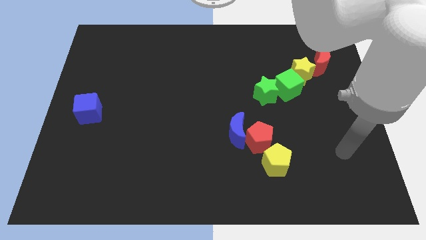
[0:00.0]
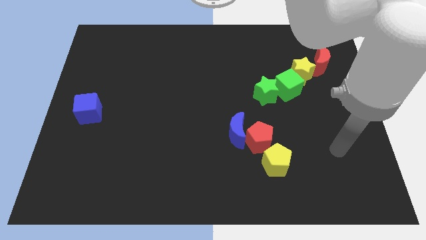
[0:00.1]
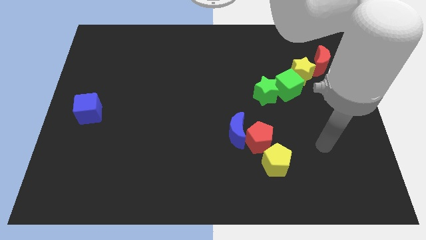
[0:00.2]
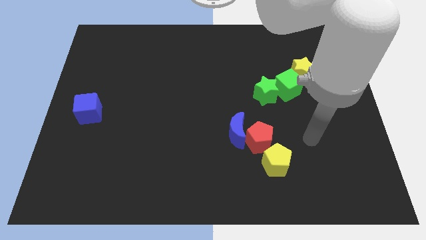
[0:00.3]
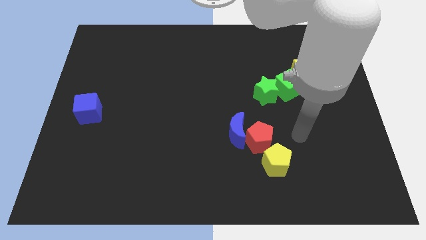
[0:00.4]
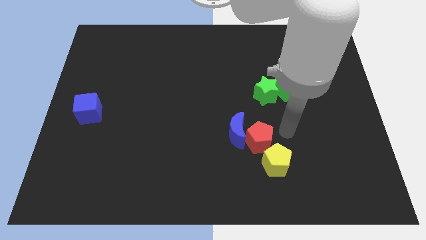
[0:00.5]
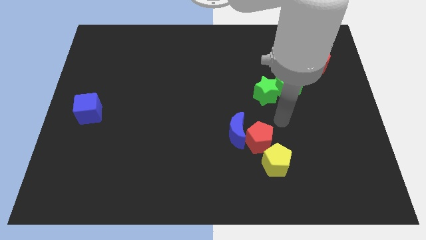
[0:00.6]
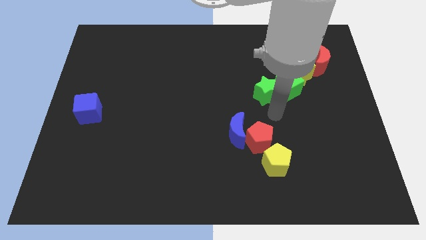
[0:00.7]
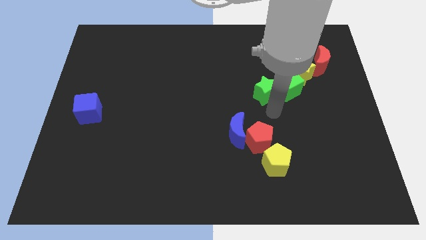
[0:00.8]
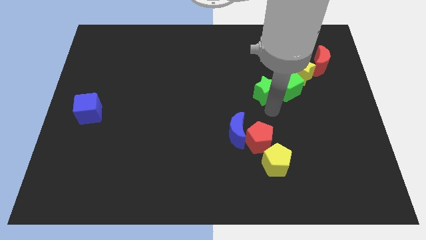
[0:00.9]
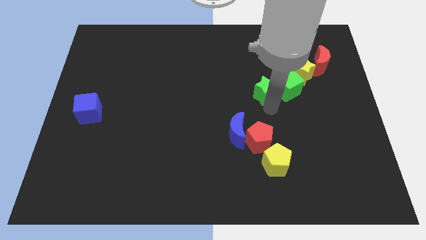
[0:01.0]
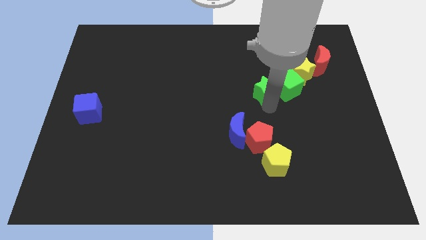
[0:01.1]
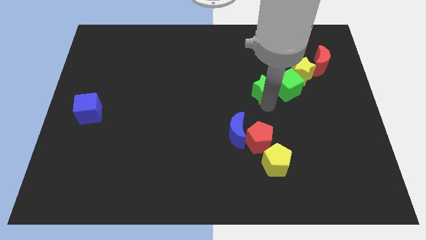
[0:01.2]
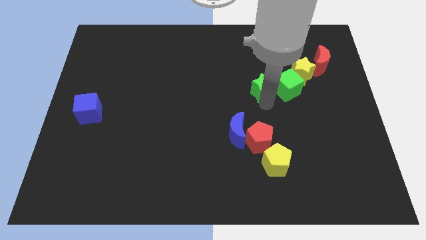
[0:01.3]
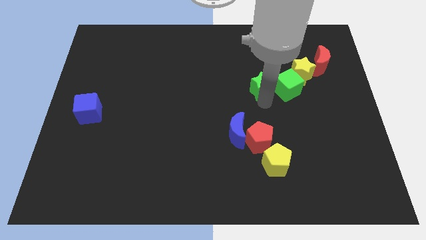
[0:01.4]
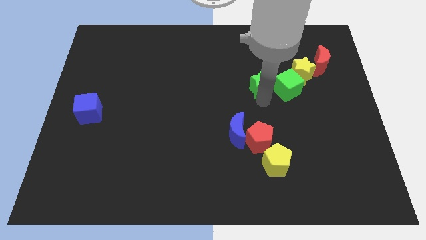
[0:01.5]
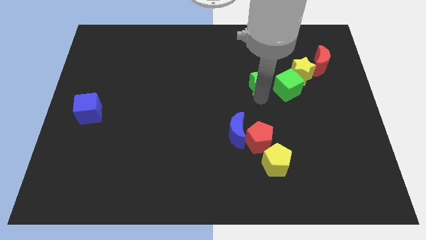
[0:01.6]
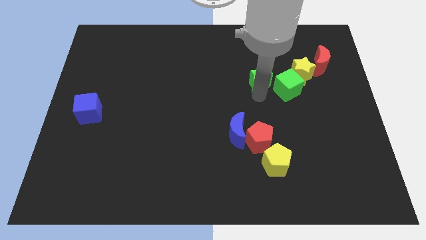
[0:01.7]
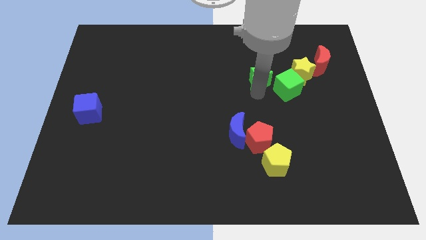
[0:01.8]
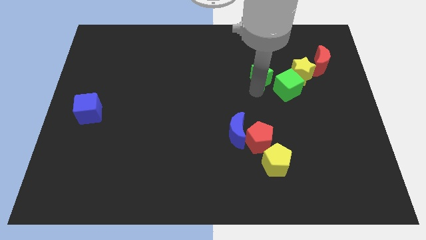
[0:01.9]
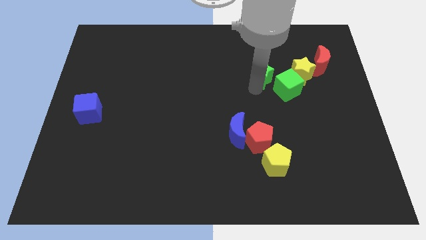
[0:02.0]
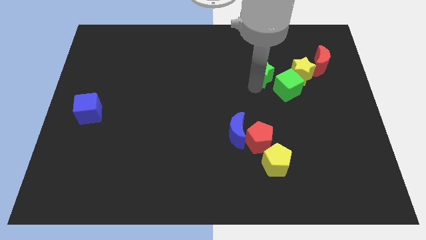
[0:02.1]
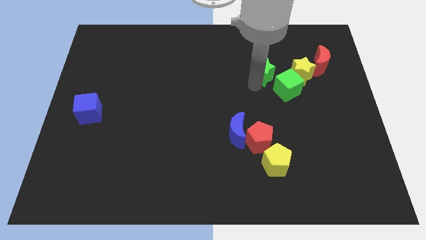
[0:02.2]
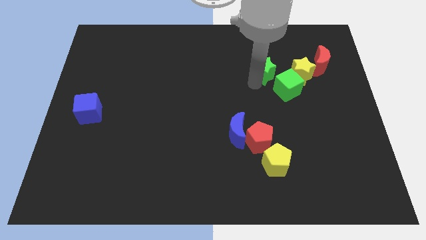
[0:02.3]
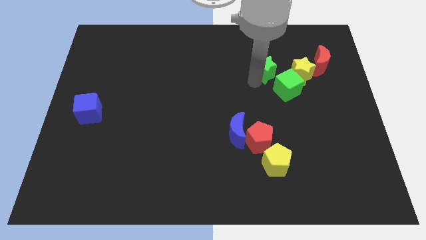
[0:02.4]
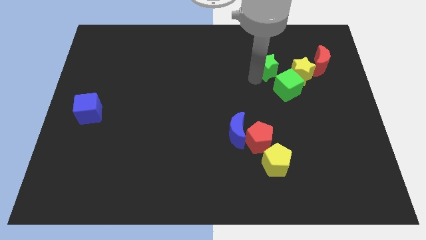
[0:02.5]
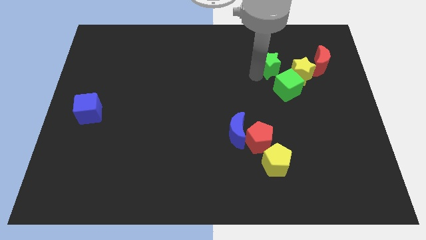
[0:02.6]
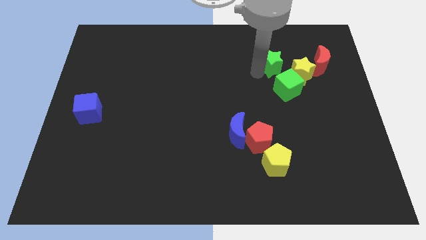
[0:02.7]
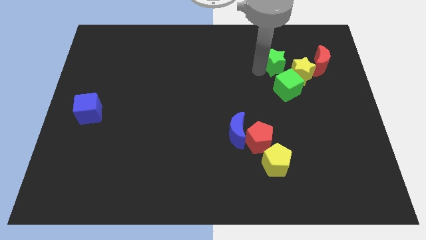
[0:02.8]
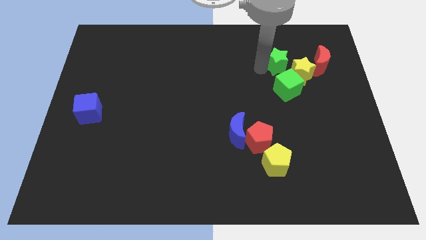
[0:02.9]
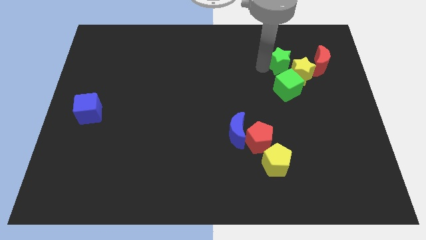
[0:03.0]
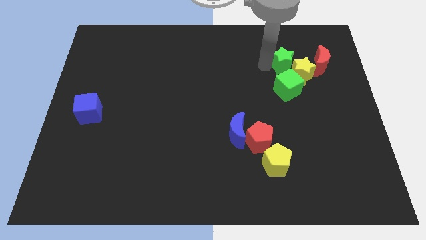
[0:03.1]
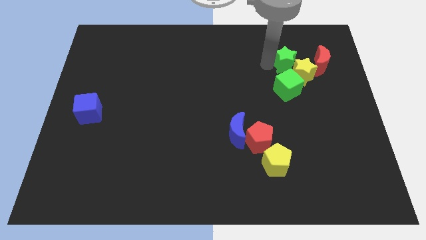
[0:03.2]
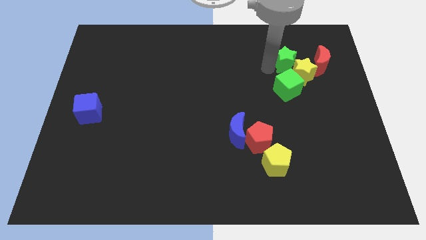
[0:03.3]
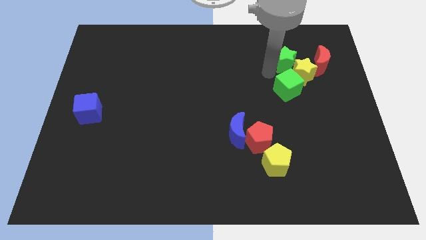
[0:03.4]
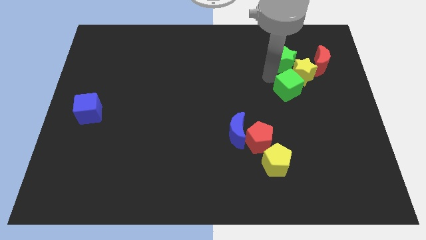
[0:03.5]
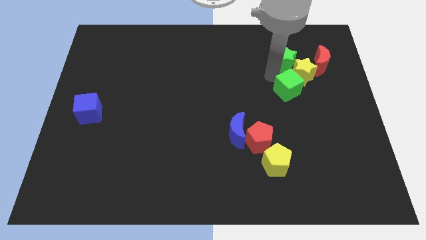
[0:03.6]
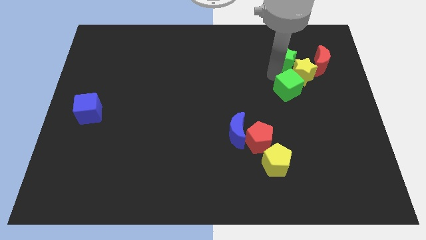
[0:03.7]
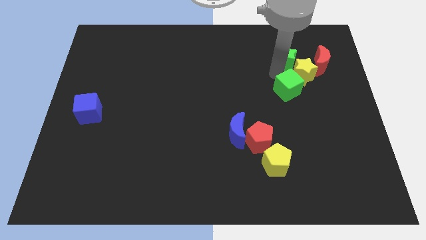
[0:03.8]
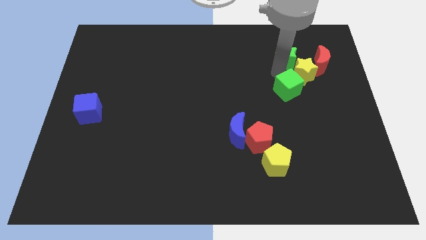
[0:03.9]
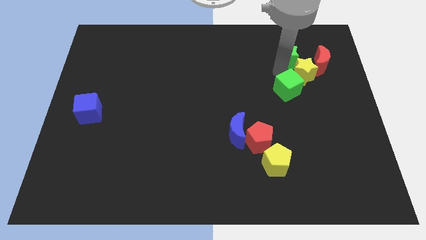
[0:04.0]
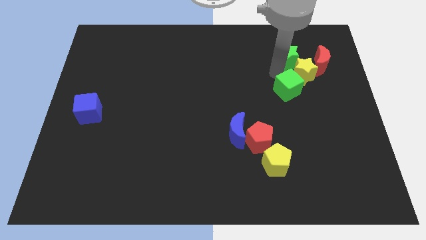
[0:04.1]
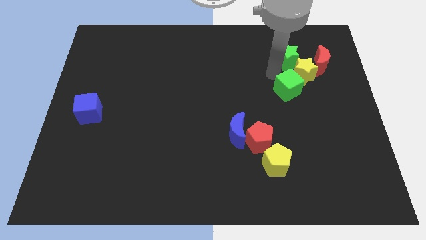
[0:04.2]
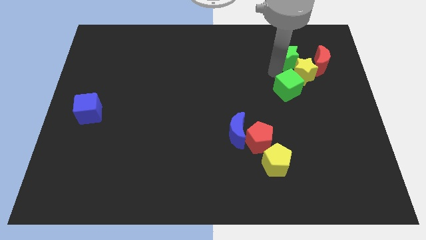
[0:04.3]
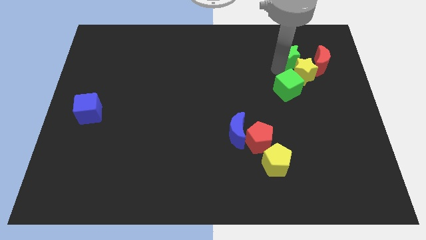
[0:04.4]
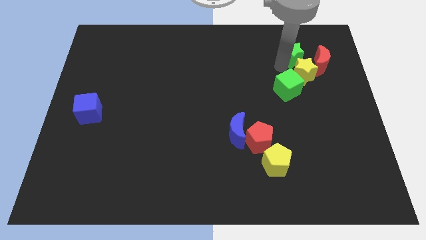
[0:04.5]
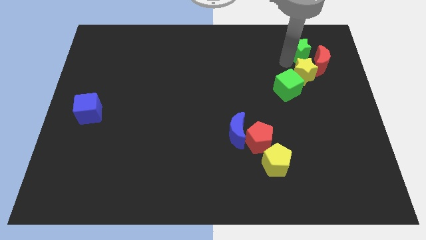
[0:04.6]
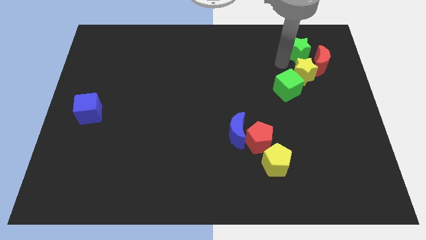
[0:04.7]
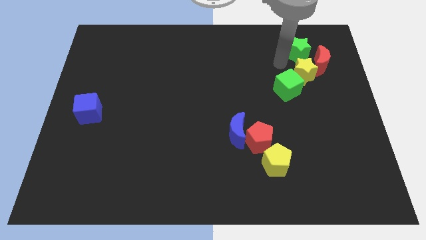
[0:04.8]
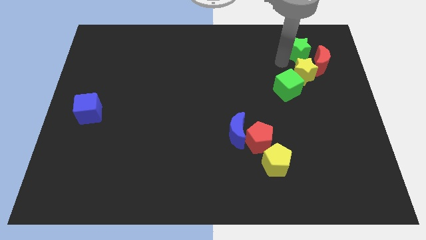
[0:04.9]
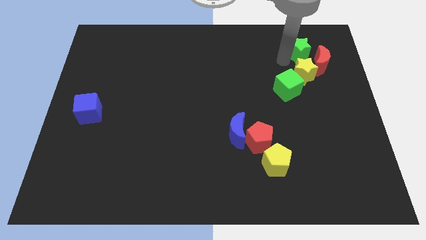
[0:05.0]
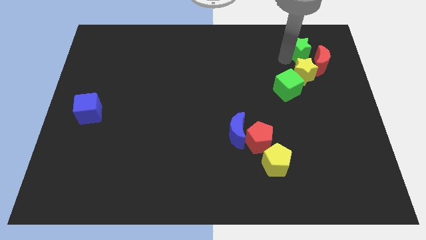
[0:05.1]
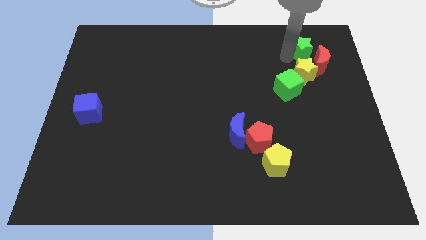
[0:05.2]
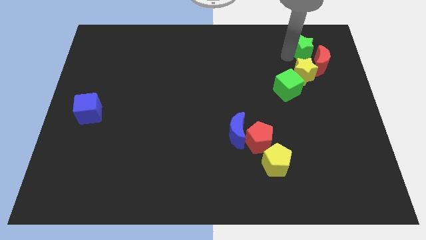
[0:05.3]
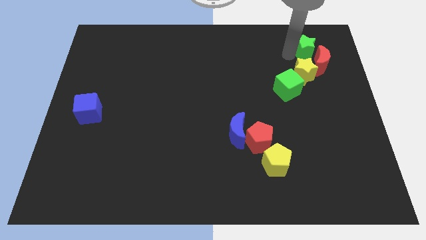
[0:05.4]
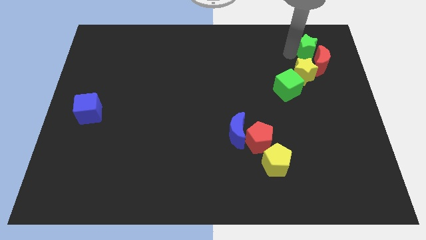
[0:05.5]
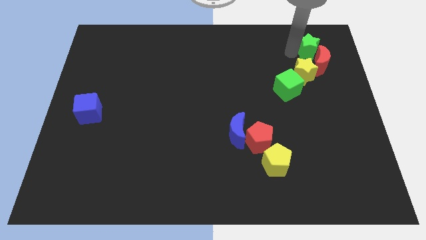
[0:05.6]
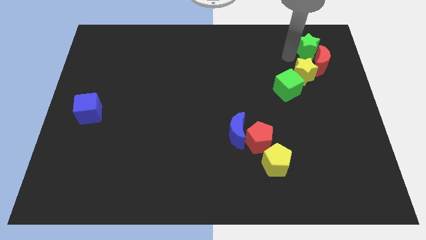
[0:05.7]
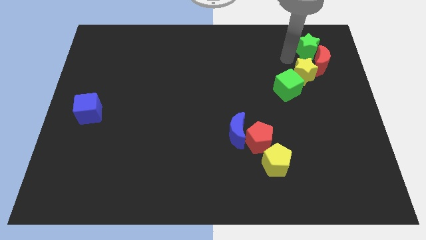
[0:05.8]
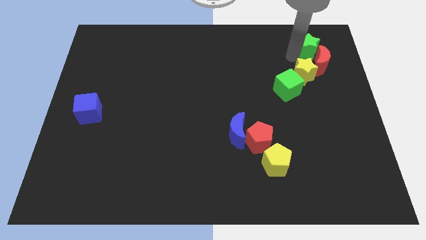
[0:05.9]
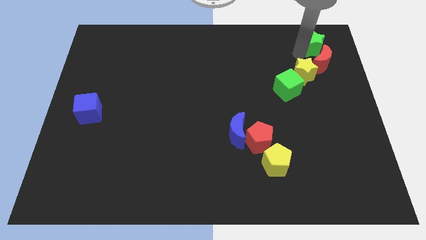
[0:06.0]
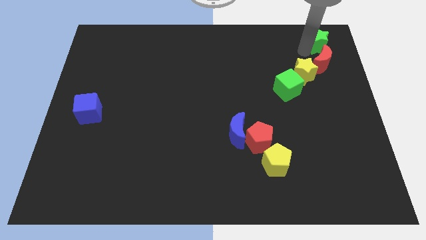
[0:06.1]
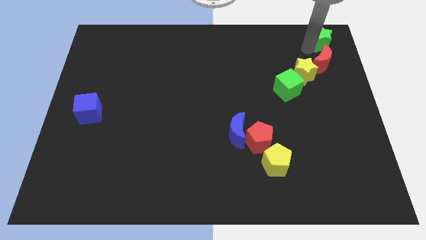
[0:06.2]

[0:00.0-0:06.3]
slide the green star to the upper right corner

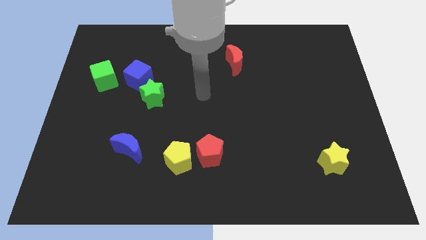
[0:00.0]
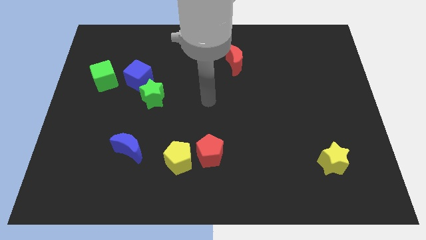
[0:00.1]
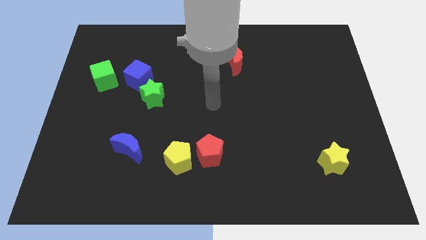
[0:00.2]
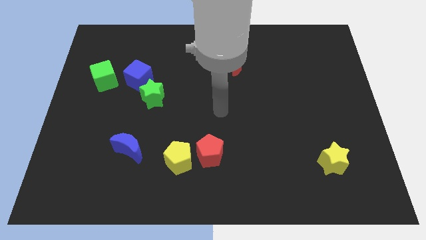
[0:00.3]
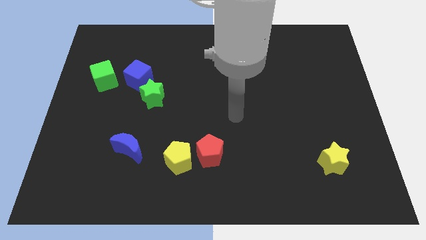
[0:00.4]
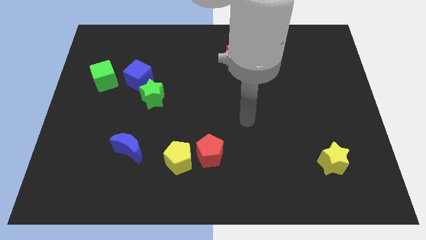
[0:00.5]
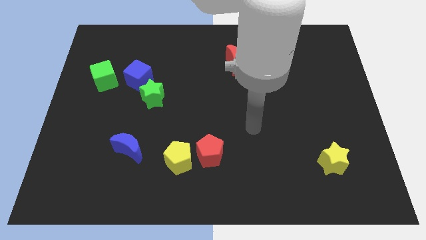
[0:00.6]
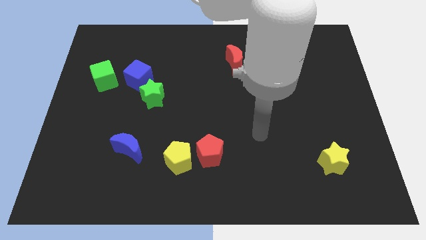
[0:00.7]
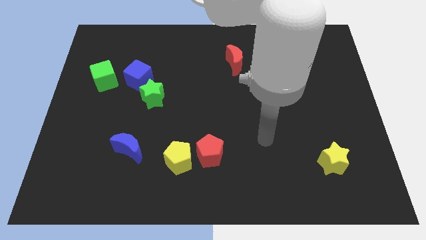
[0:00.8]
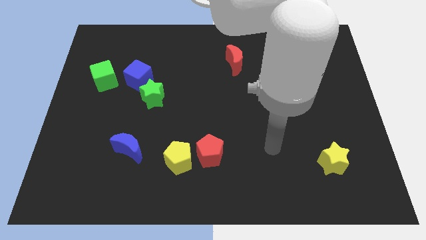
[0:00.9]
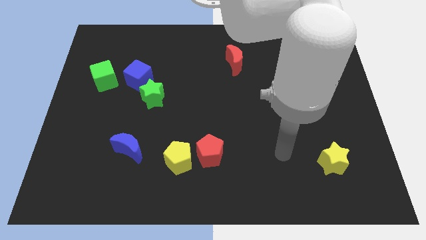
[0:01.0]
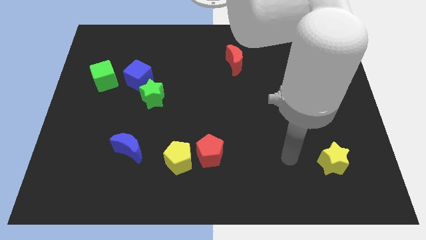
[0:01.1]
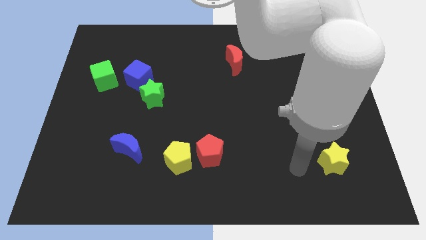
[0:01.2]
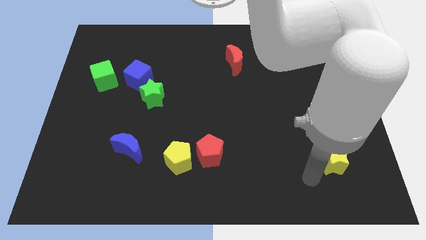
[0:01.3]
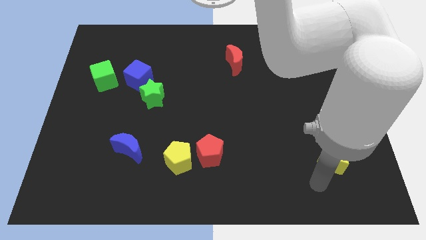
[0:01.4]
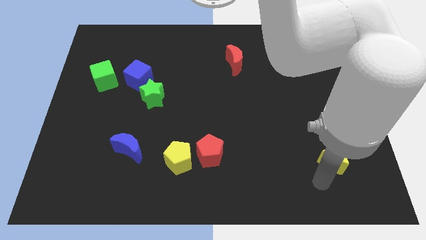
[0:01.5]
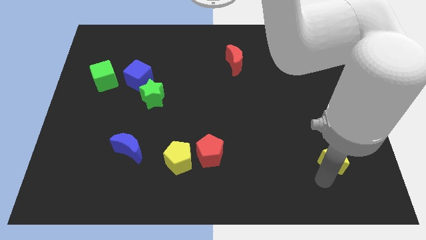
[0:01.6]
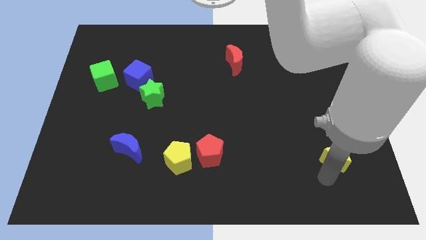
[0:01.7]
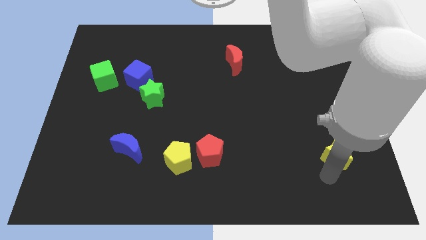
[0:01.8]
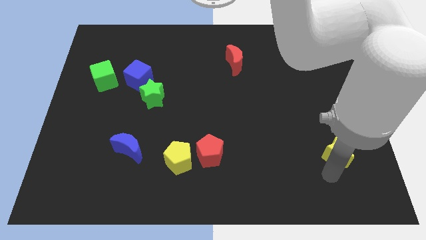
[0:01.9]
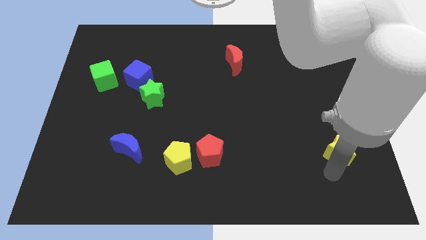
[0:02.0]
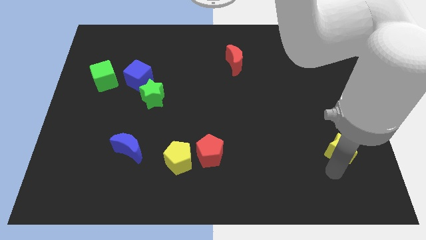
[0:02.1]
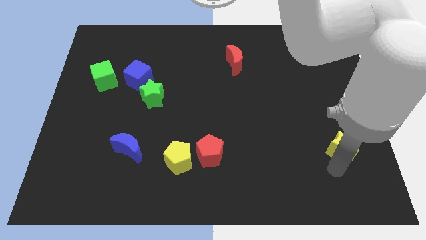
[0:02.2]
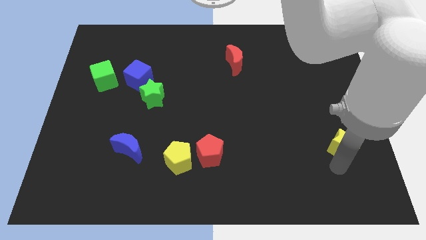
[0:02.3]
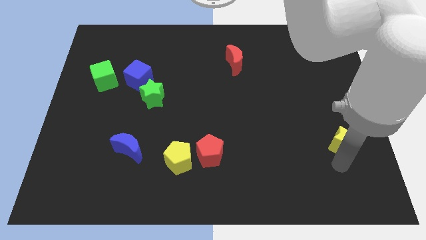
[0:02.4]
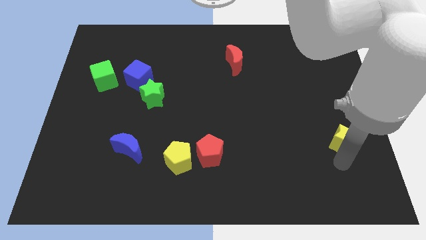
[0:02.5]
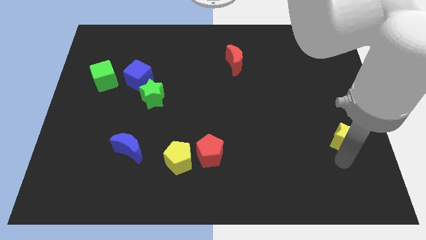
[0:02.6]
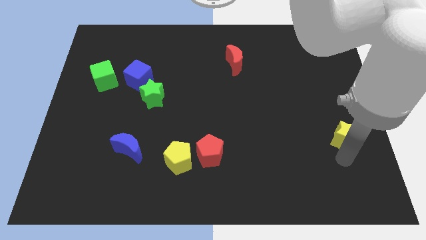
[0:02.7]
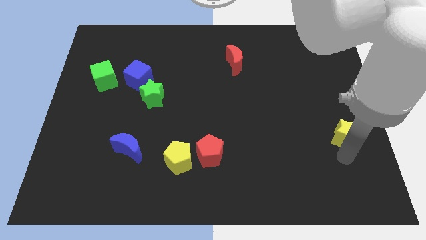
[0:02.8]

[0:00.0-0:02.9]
move the yellow star to the right side
